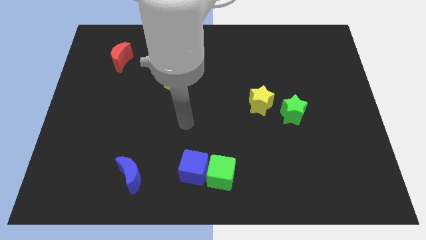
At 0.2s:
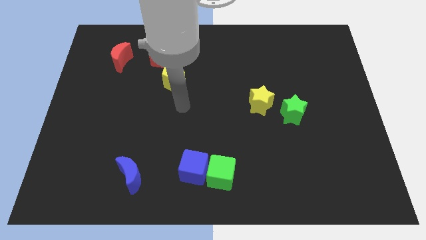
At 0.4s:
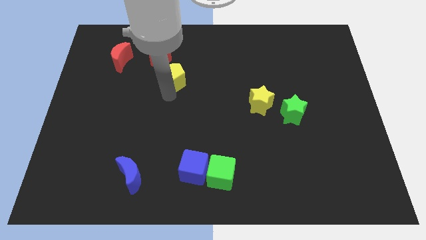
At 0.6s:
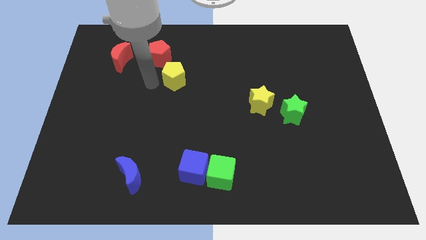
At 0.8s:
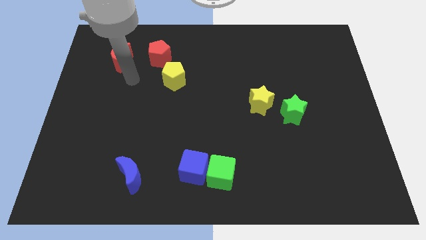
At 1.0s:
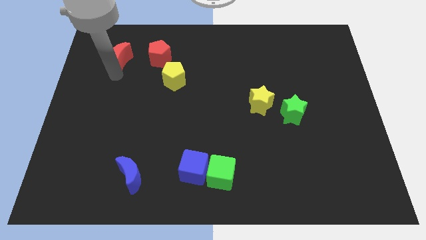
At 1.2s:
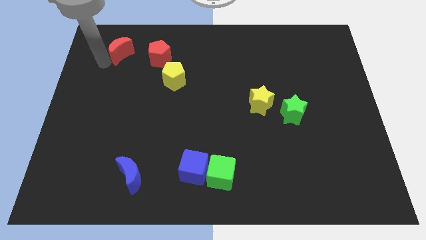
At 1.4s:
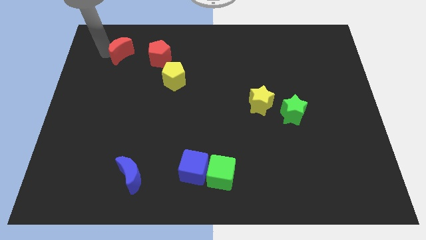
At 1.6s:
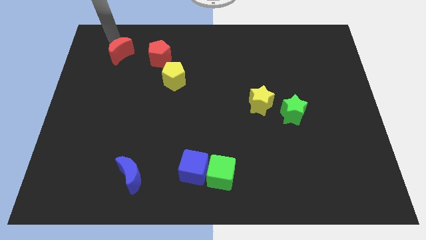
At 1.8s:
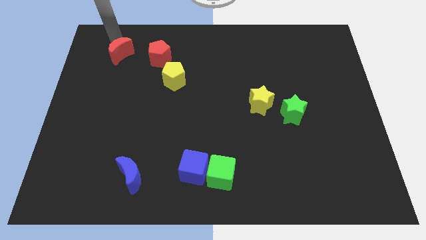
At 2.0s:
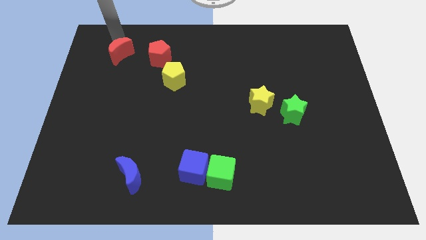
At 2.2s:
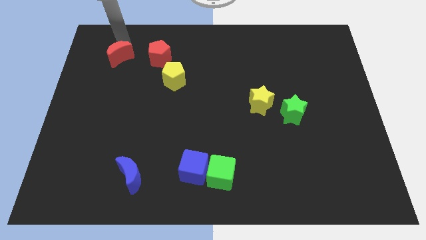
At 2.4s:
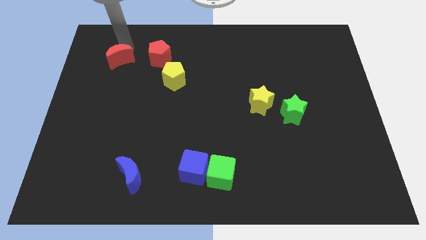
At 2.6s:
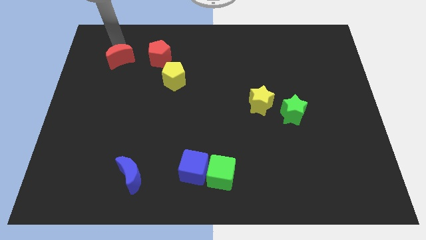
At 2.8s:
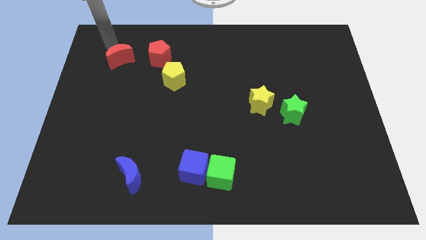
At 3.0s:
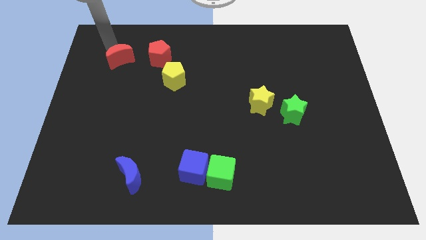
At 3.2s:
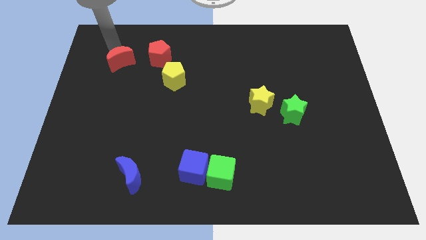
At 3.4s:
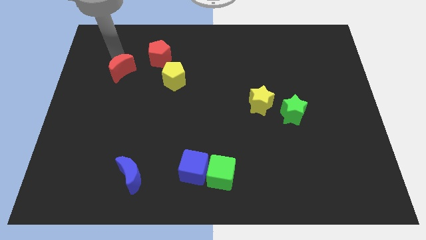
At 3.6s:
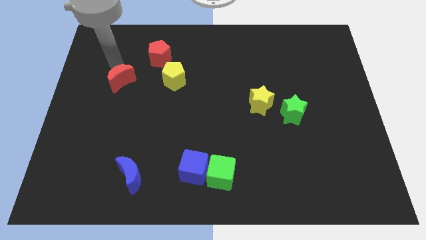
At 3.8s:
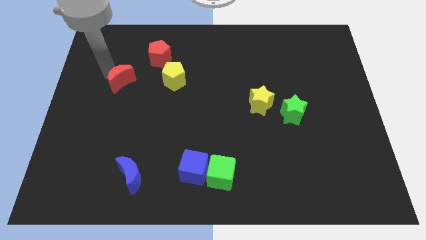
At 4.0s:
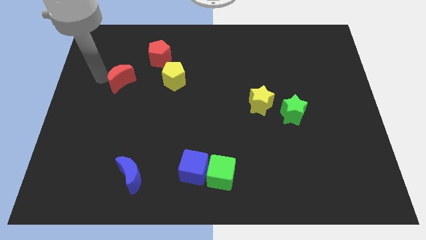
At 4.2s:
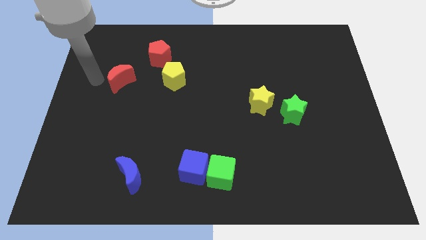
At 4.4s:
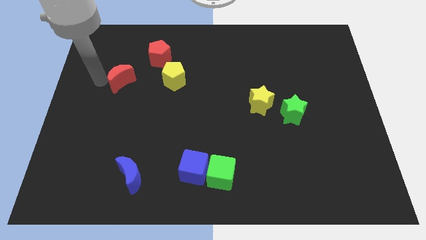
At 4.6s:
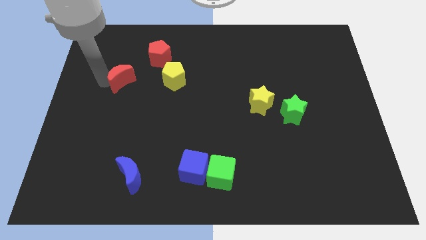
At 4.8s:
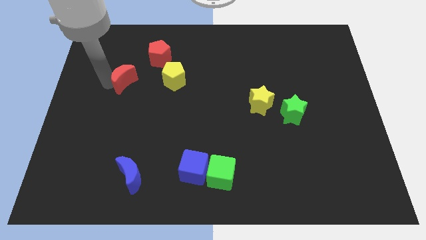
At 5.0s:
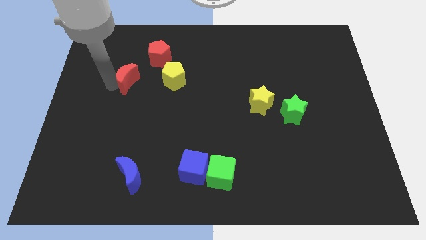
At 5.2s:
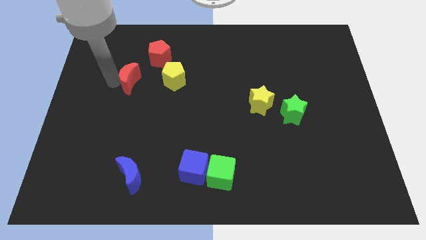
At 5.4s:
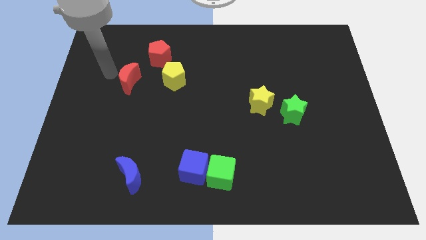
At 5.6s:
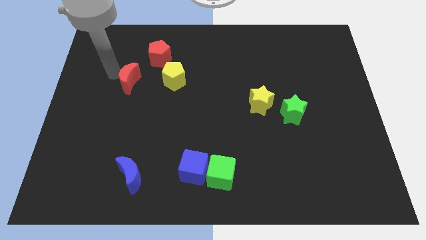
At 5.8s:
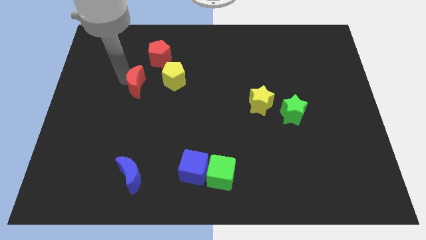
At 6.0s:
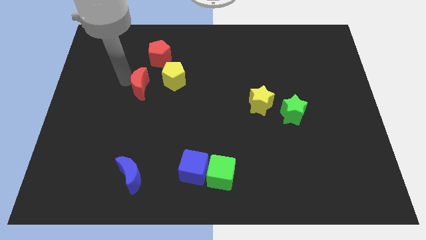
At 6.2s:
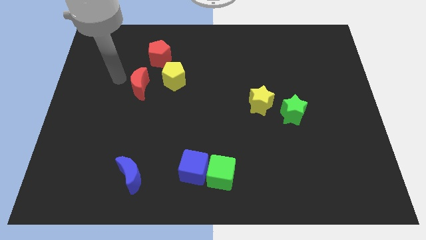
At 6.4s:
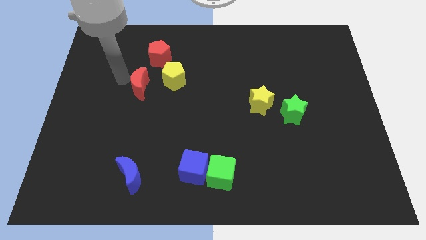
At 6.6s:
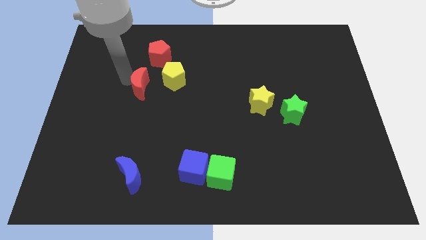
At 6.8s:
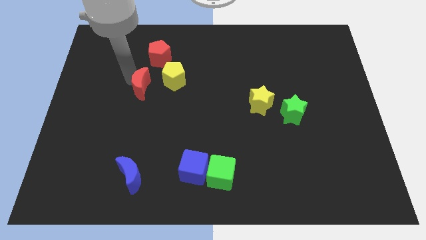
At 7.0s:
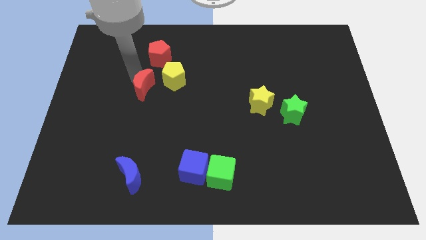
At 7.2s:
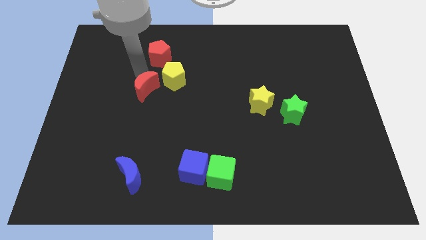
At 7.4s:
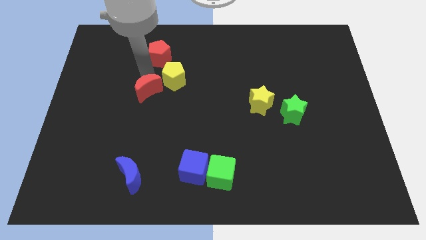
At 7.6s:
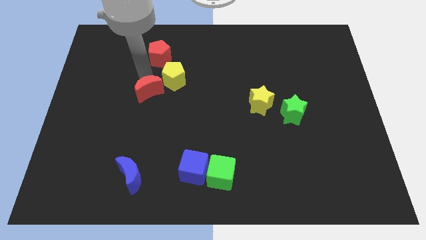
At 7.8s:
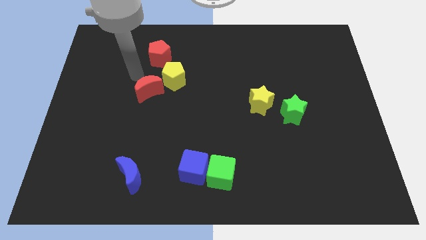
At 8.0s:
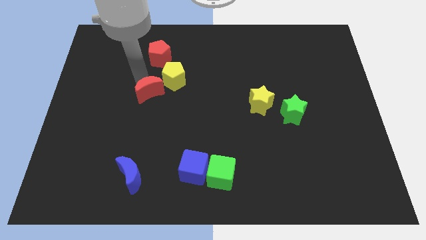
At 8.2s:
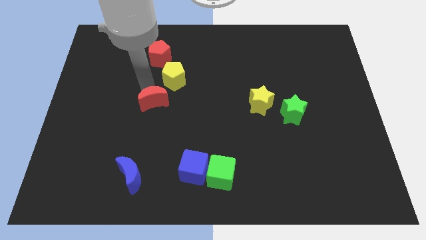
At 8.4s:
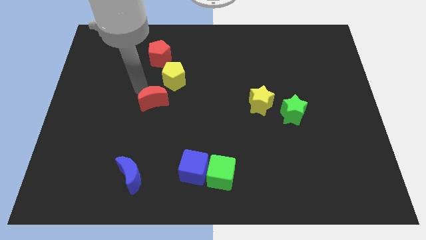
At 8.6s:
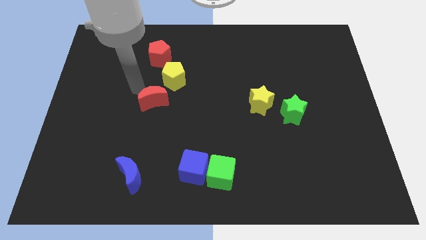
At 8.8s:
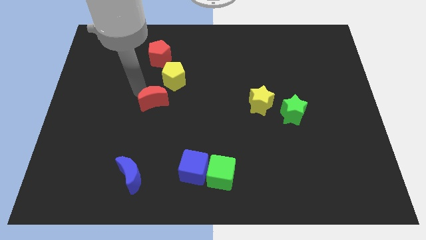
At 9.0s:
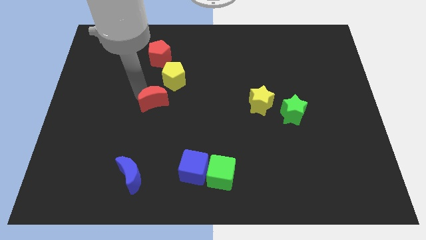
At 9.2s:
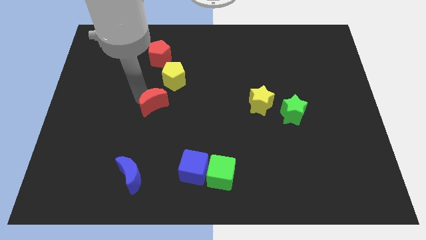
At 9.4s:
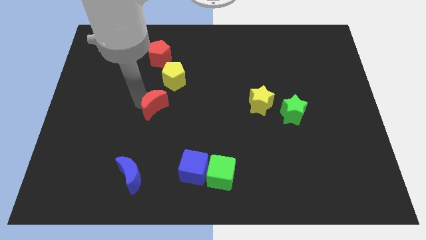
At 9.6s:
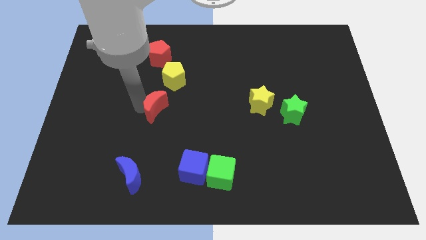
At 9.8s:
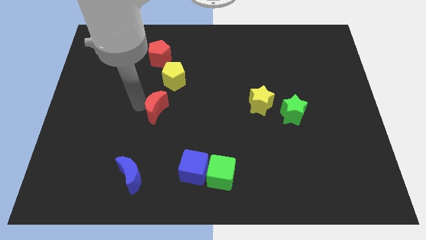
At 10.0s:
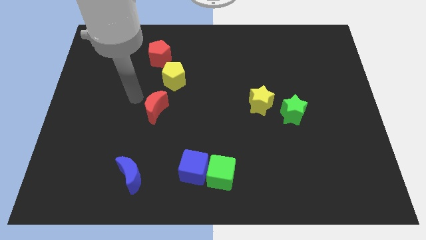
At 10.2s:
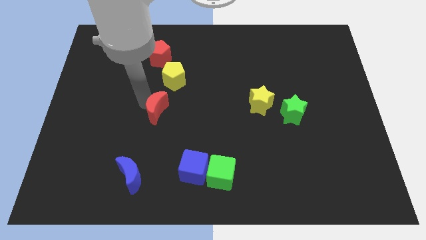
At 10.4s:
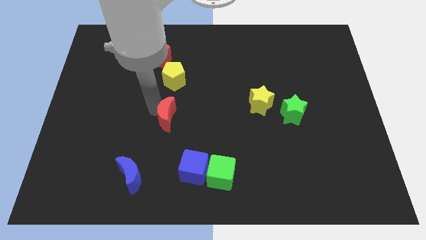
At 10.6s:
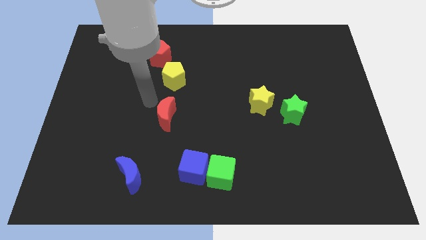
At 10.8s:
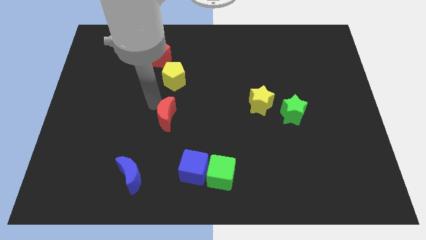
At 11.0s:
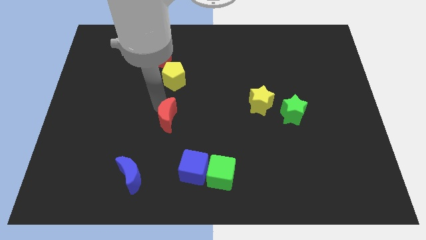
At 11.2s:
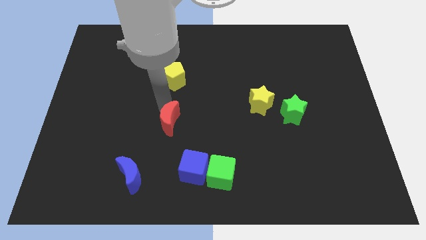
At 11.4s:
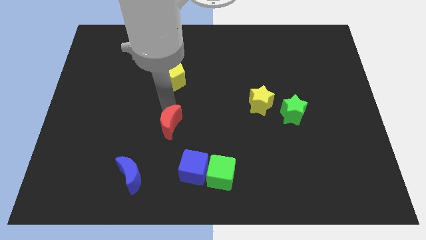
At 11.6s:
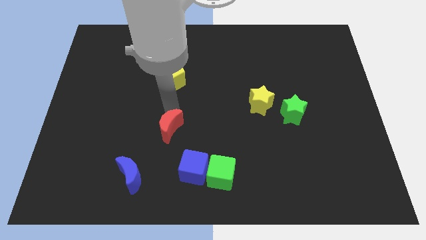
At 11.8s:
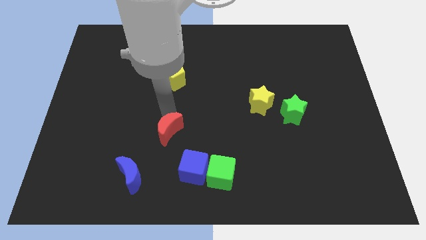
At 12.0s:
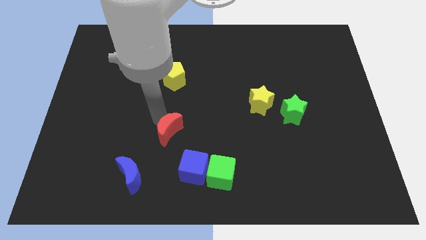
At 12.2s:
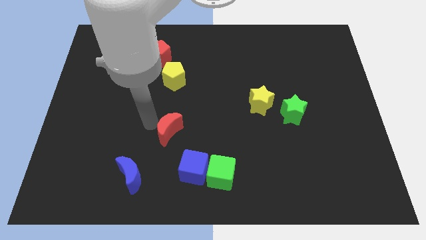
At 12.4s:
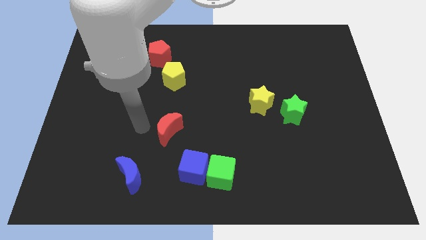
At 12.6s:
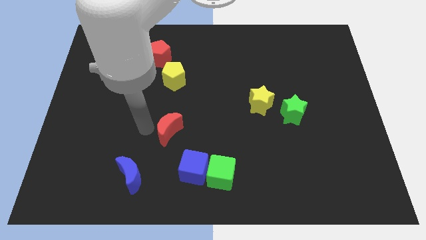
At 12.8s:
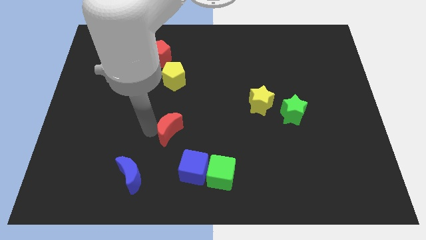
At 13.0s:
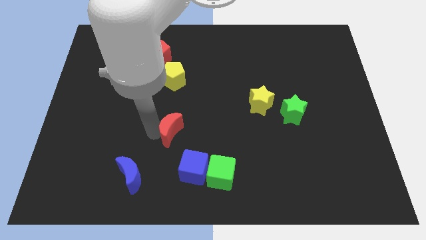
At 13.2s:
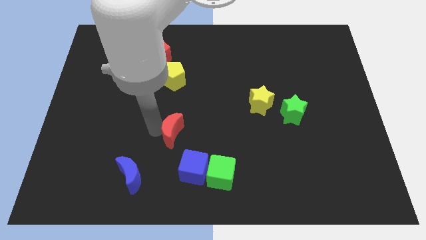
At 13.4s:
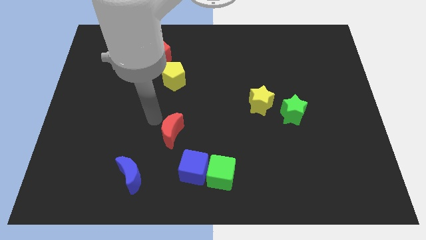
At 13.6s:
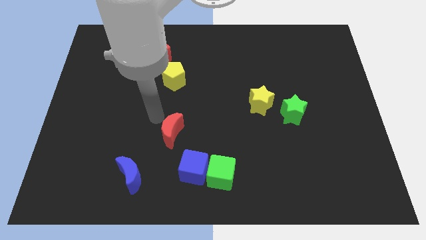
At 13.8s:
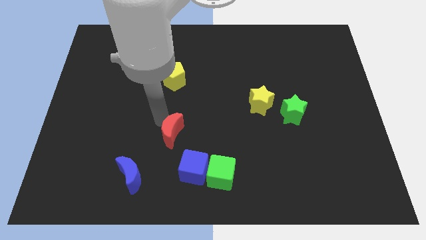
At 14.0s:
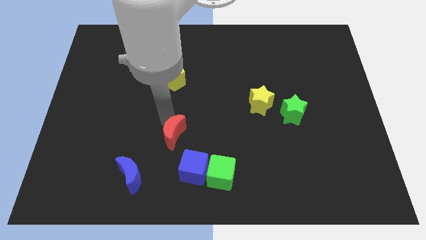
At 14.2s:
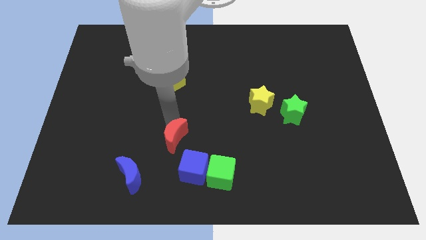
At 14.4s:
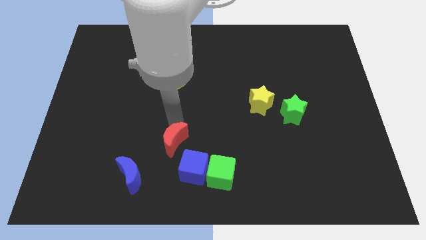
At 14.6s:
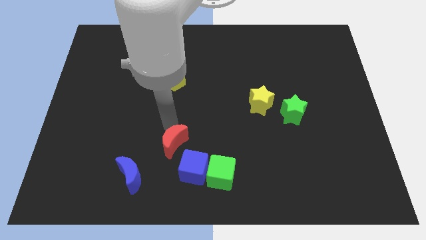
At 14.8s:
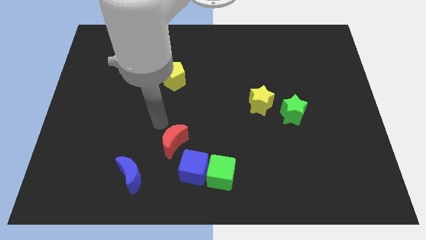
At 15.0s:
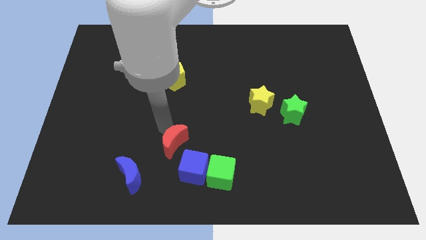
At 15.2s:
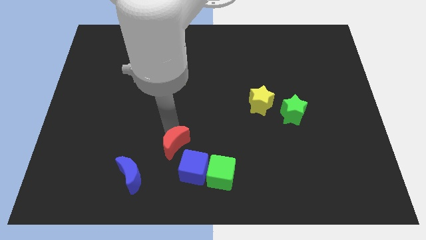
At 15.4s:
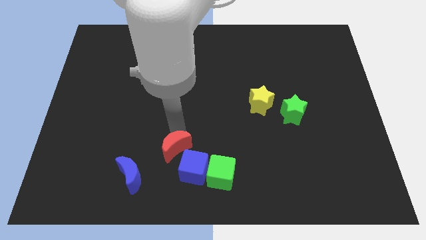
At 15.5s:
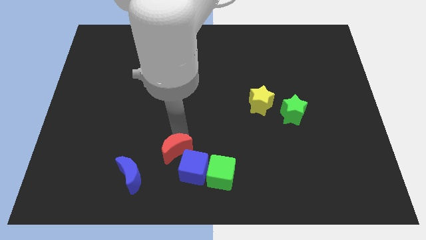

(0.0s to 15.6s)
put the red moon towards the blue cube
